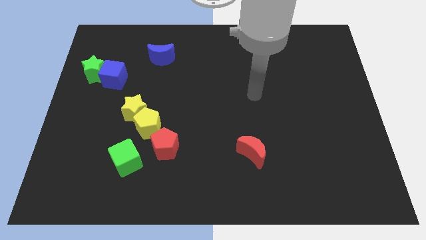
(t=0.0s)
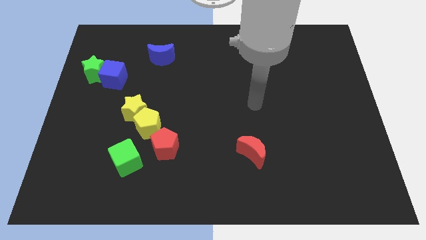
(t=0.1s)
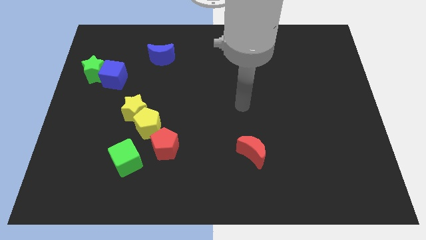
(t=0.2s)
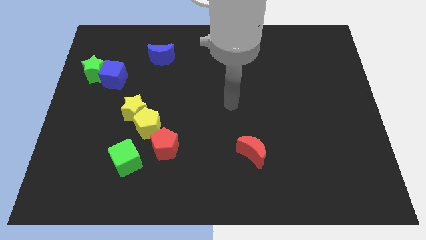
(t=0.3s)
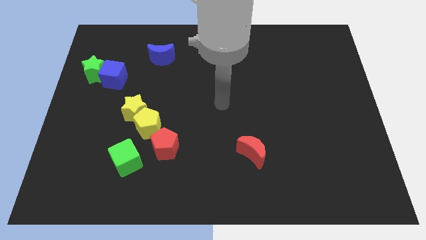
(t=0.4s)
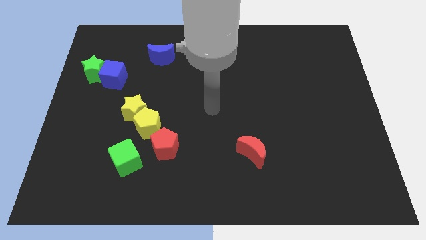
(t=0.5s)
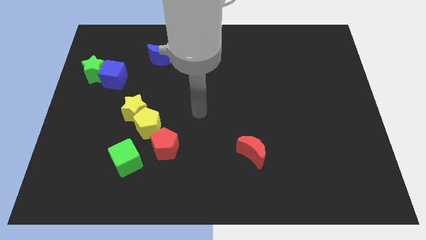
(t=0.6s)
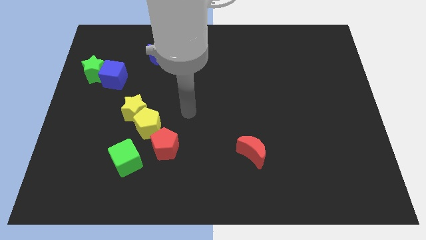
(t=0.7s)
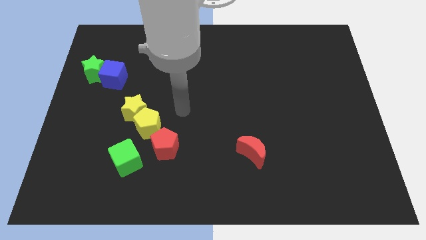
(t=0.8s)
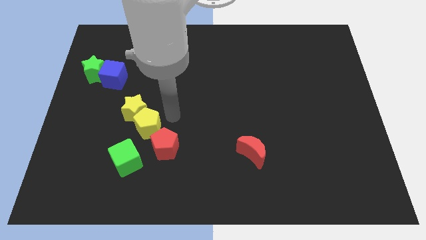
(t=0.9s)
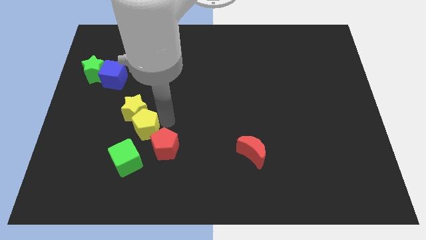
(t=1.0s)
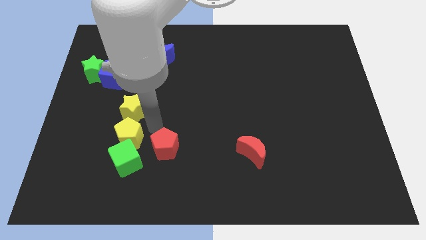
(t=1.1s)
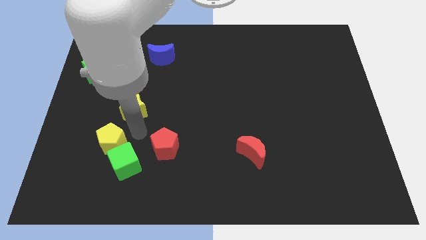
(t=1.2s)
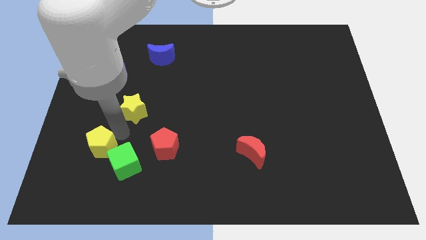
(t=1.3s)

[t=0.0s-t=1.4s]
separate the yellow star from the yellow pentagon

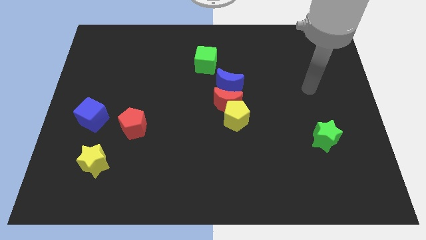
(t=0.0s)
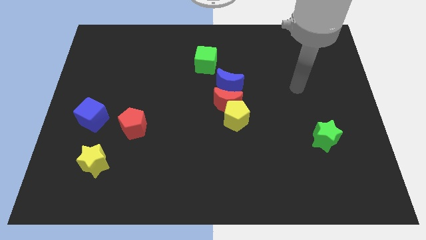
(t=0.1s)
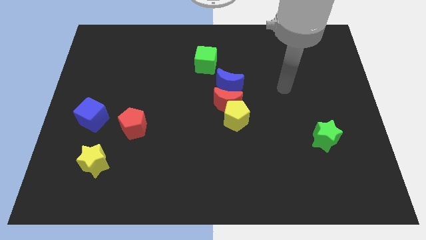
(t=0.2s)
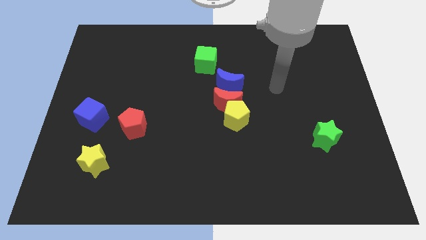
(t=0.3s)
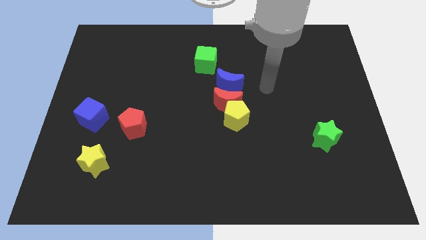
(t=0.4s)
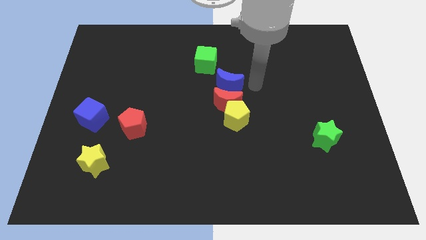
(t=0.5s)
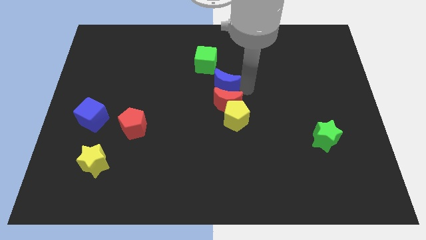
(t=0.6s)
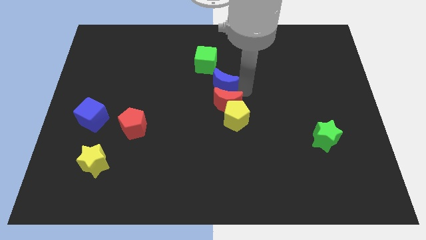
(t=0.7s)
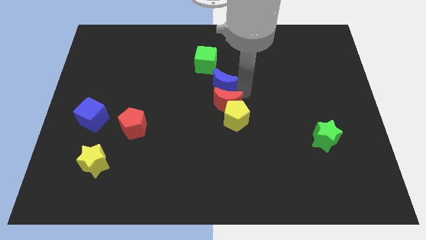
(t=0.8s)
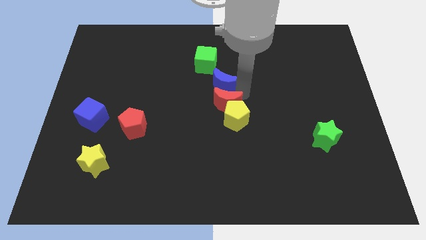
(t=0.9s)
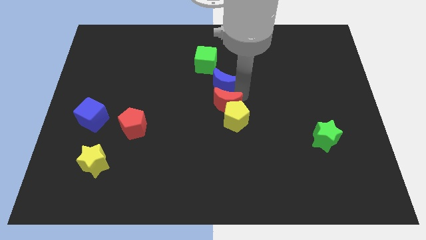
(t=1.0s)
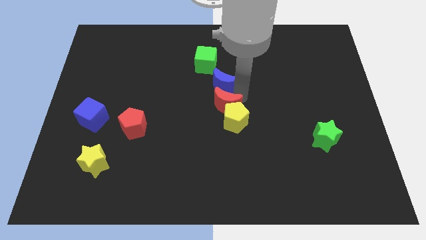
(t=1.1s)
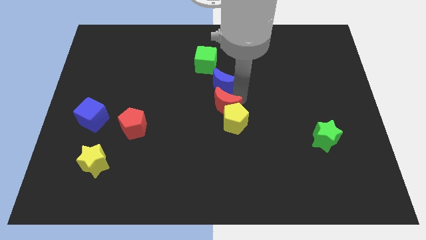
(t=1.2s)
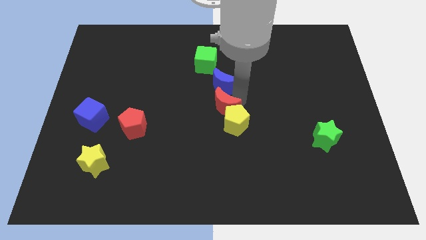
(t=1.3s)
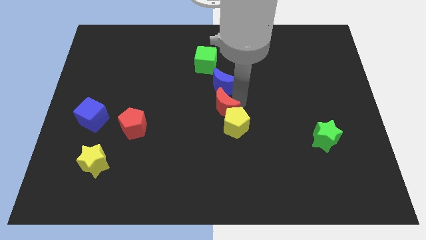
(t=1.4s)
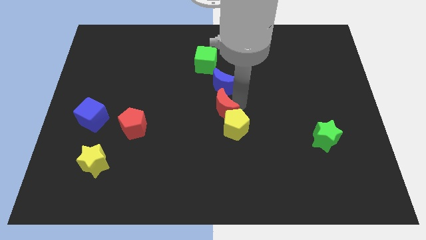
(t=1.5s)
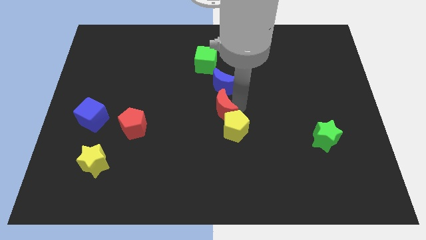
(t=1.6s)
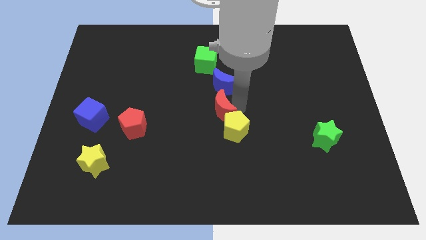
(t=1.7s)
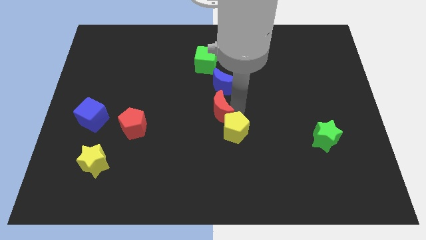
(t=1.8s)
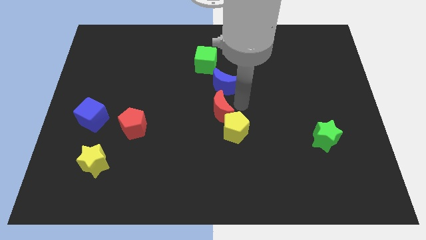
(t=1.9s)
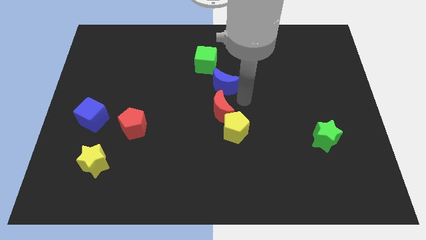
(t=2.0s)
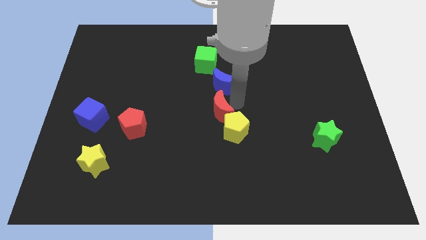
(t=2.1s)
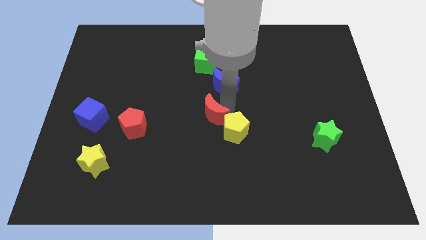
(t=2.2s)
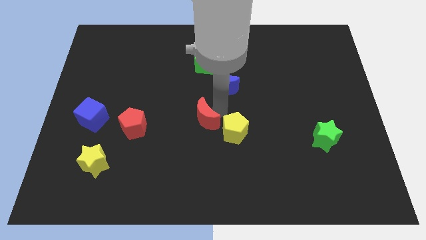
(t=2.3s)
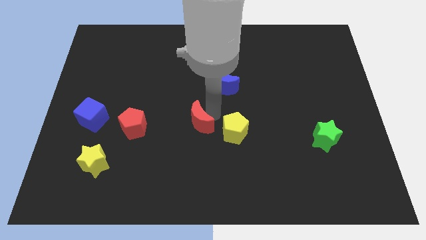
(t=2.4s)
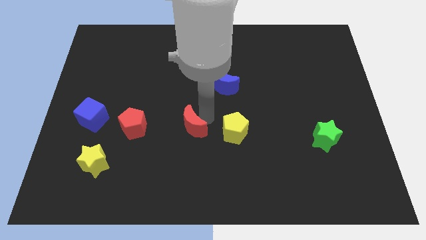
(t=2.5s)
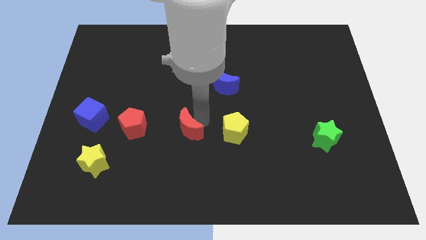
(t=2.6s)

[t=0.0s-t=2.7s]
separate the red moon from the yellow pentagon and blue moon

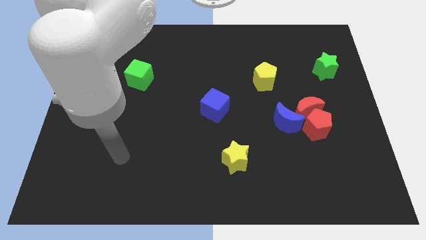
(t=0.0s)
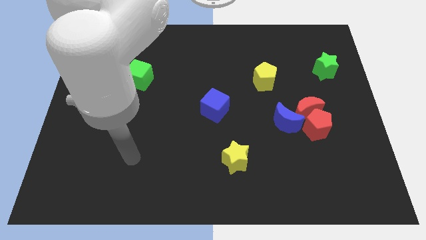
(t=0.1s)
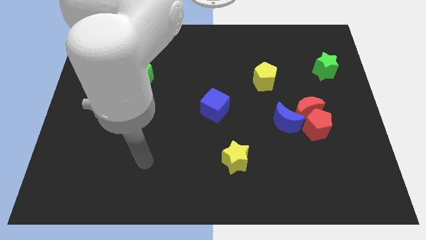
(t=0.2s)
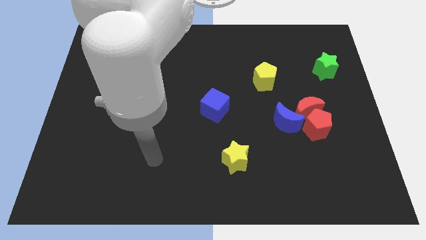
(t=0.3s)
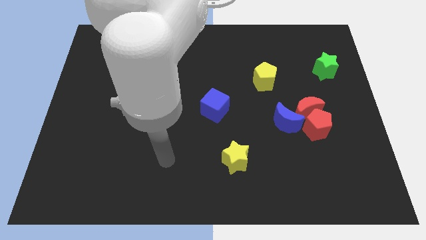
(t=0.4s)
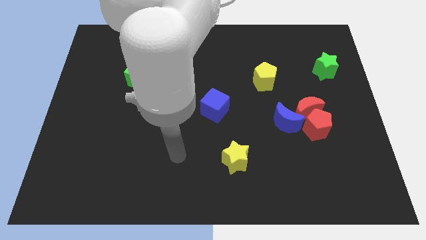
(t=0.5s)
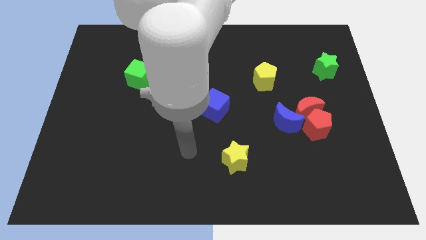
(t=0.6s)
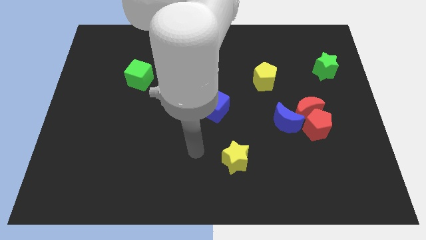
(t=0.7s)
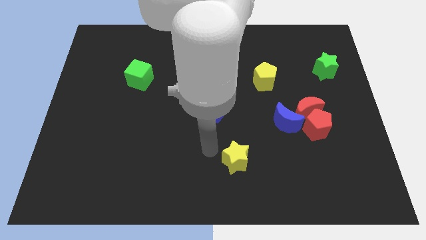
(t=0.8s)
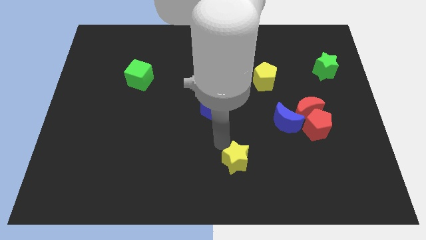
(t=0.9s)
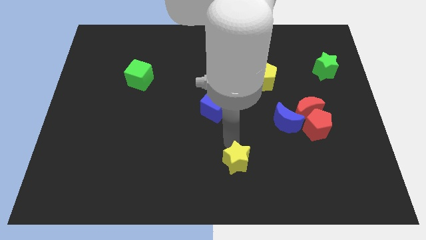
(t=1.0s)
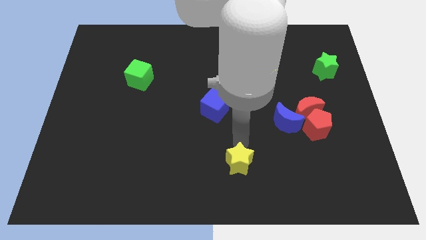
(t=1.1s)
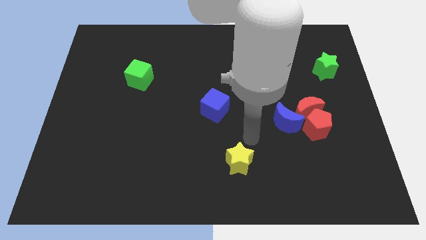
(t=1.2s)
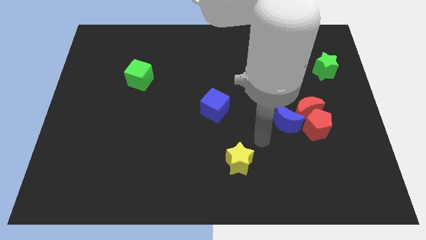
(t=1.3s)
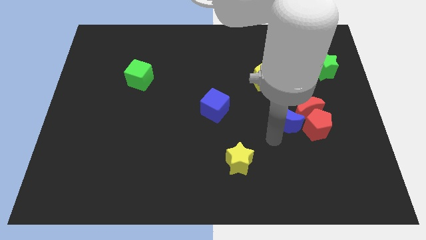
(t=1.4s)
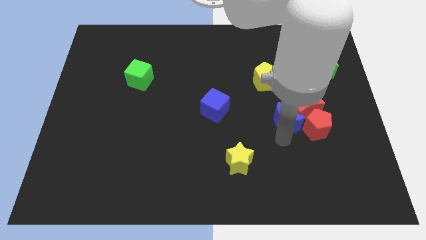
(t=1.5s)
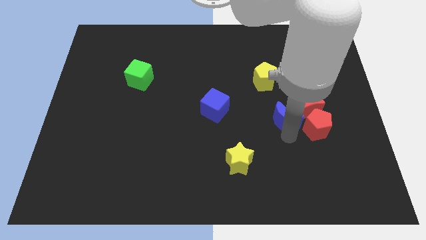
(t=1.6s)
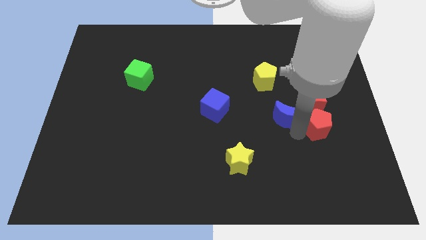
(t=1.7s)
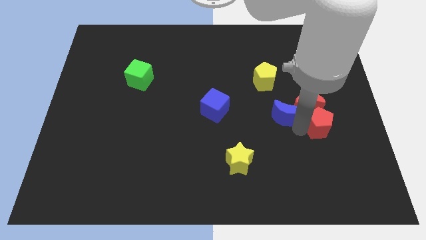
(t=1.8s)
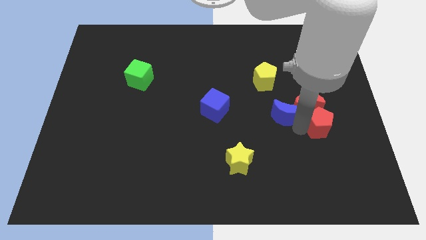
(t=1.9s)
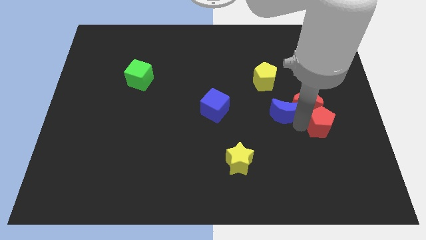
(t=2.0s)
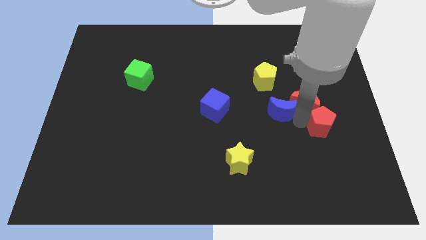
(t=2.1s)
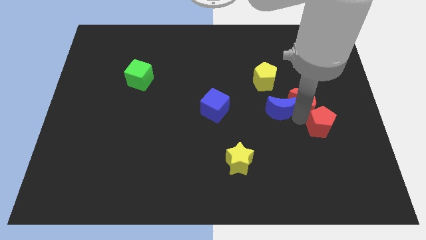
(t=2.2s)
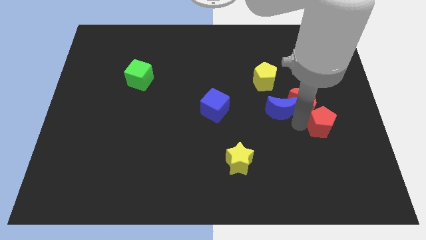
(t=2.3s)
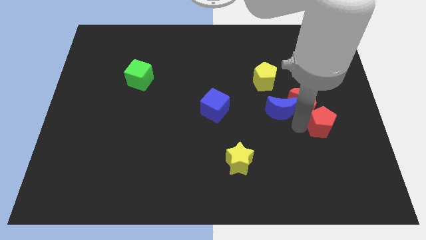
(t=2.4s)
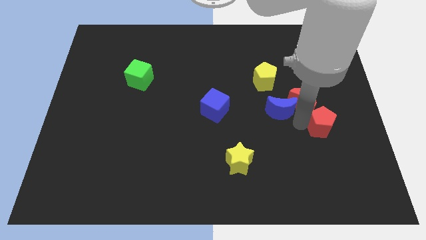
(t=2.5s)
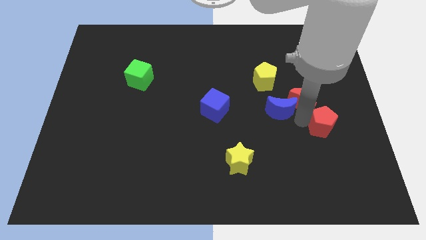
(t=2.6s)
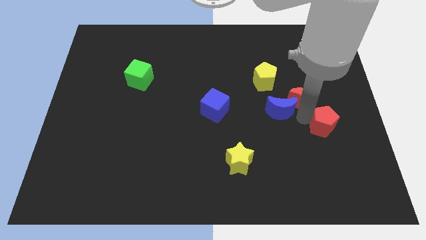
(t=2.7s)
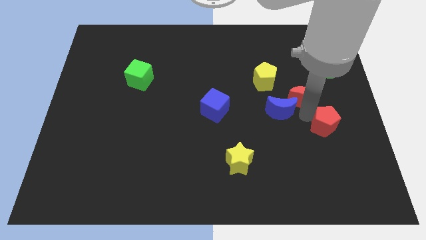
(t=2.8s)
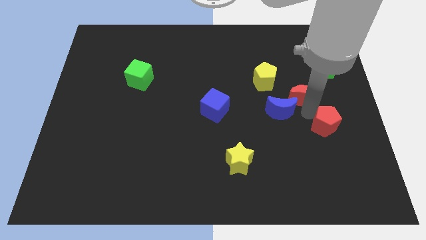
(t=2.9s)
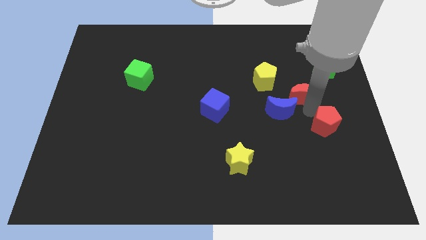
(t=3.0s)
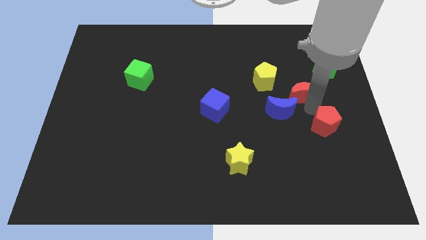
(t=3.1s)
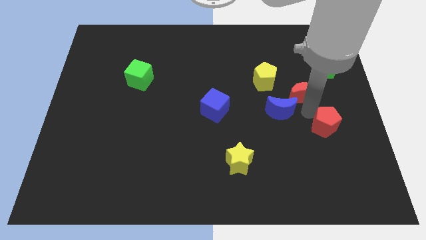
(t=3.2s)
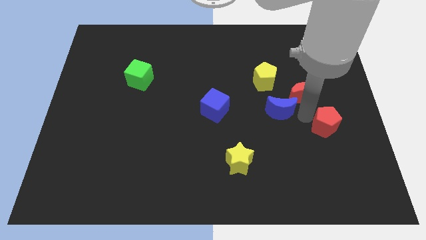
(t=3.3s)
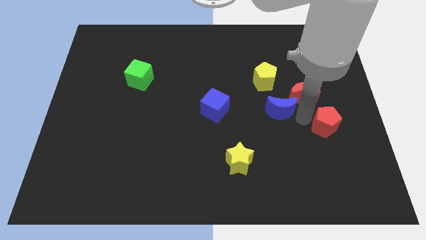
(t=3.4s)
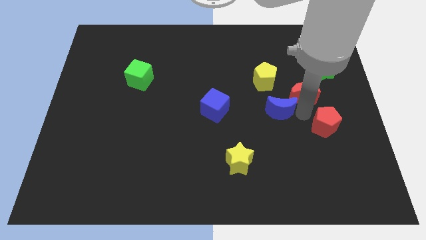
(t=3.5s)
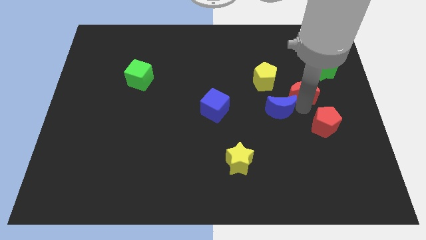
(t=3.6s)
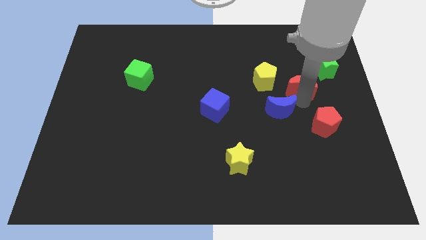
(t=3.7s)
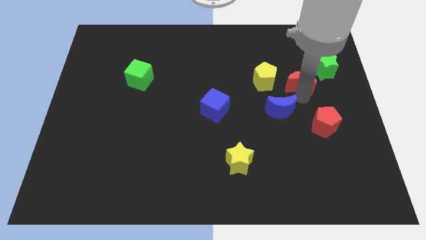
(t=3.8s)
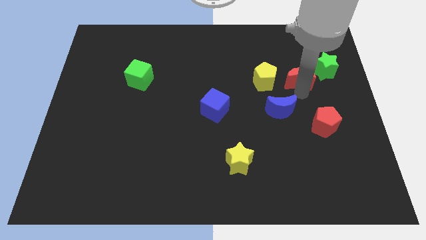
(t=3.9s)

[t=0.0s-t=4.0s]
pull the red moon apart from the red pentagon and blue moon

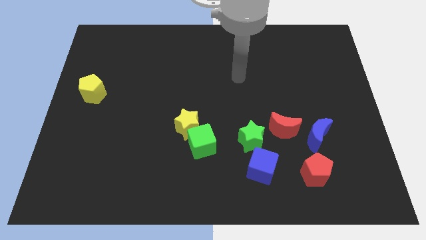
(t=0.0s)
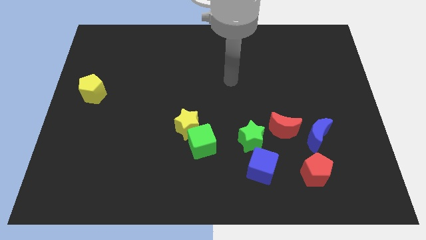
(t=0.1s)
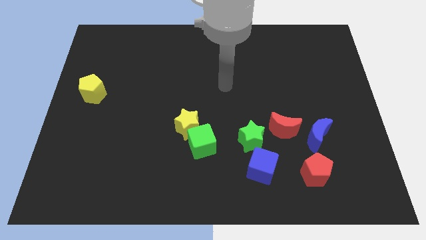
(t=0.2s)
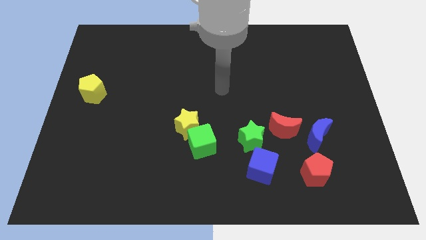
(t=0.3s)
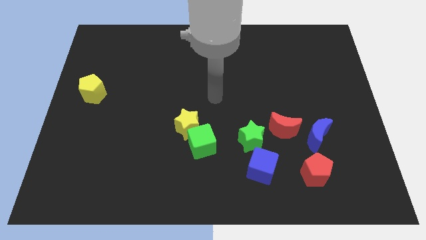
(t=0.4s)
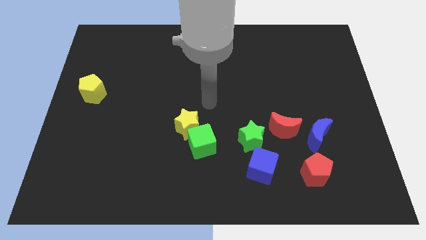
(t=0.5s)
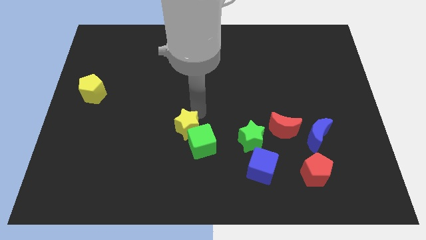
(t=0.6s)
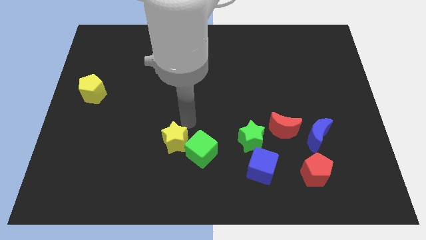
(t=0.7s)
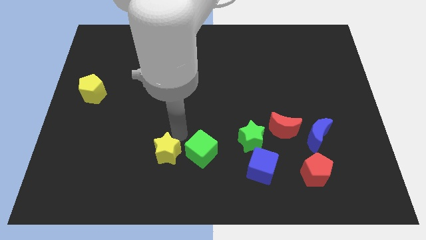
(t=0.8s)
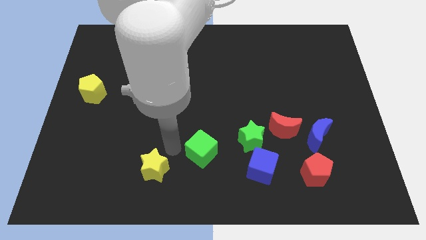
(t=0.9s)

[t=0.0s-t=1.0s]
move the green cube away from the yellow star
